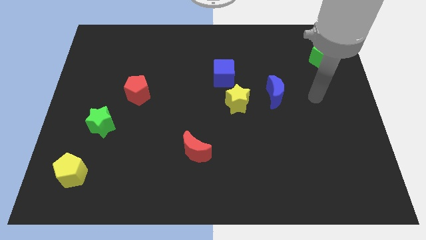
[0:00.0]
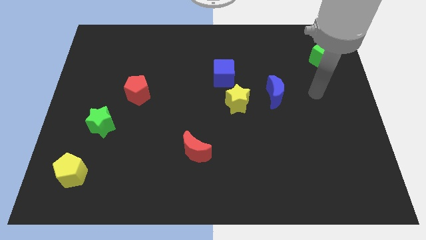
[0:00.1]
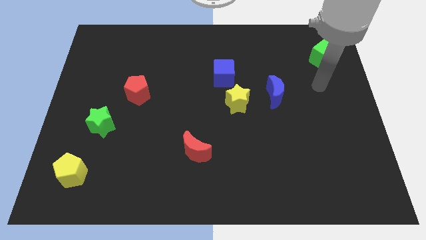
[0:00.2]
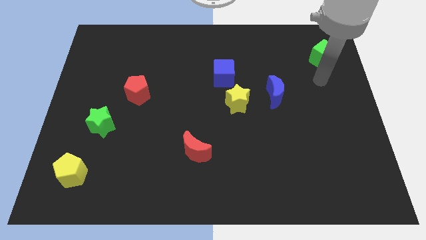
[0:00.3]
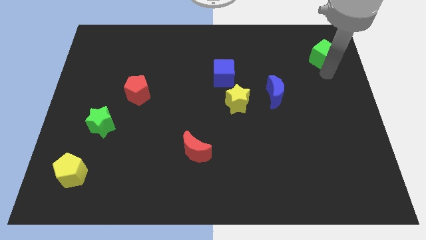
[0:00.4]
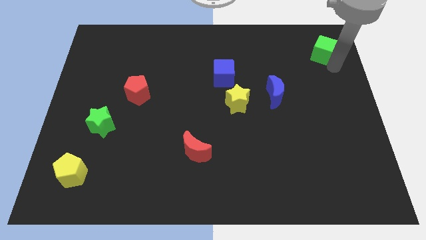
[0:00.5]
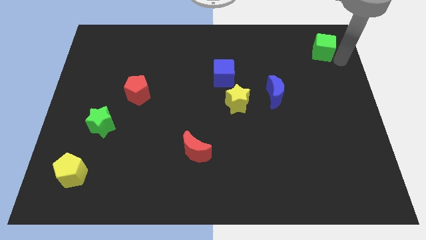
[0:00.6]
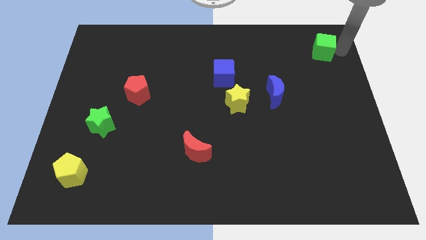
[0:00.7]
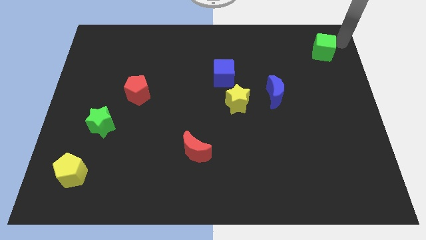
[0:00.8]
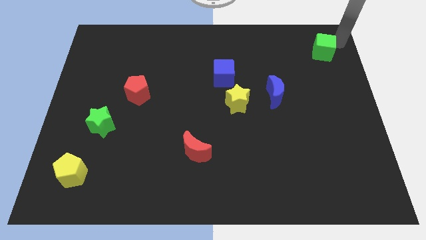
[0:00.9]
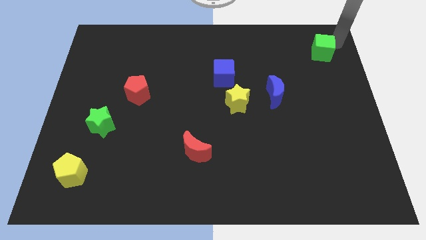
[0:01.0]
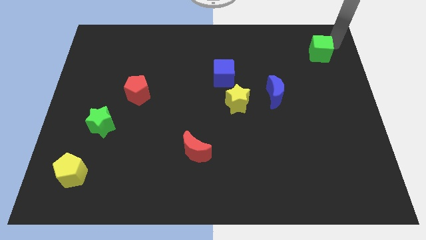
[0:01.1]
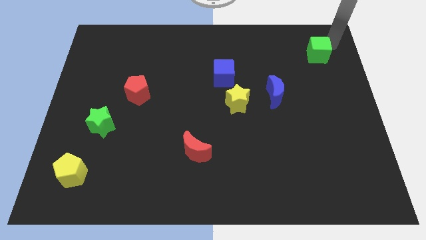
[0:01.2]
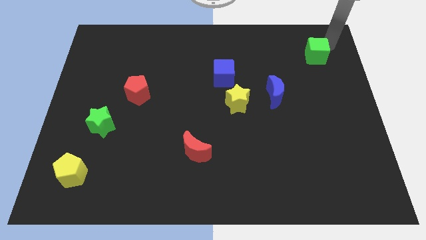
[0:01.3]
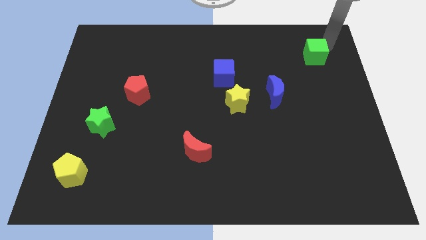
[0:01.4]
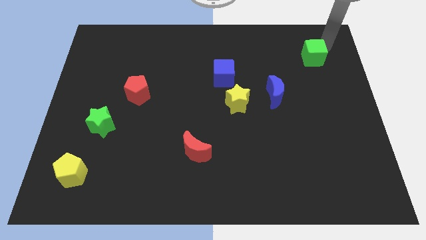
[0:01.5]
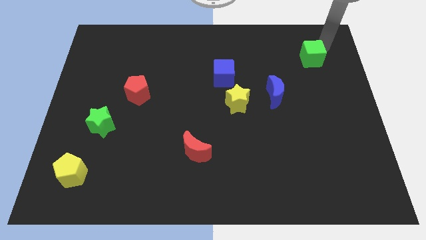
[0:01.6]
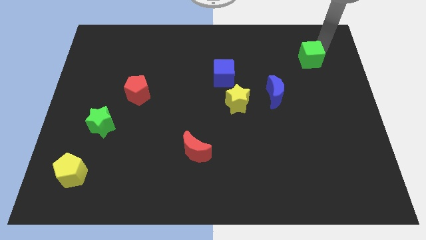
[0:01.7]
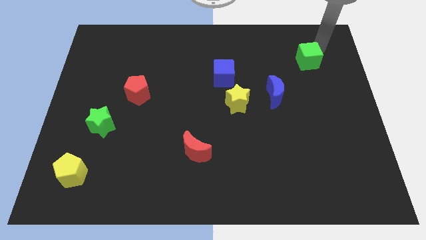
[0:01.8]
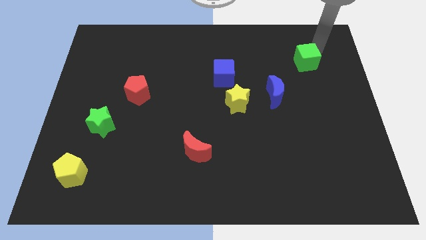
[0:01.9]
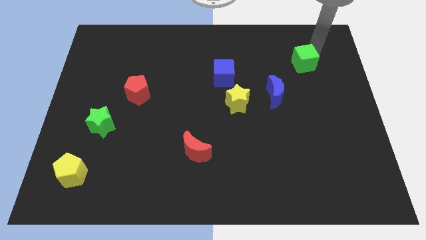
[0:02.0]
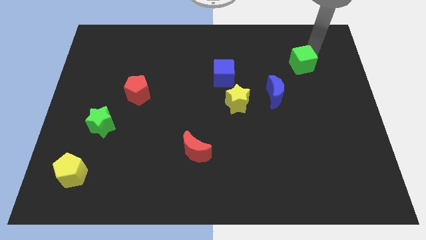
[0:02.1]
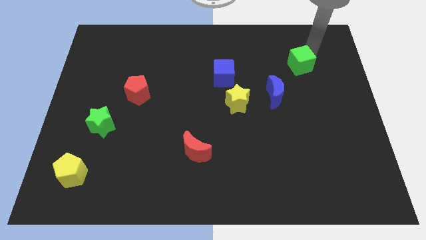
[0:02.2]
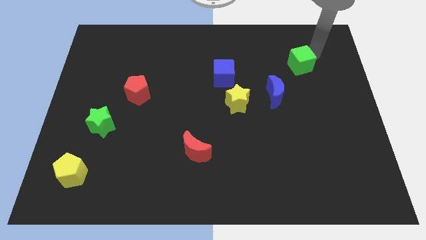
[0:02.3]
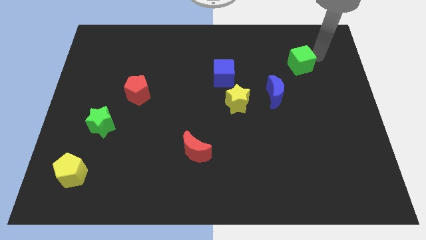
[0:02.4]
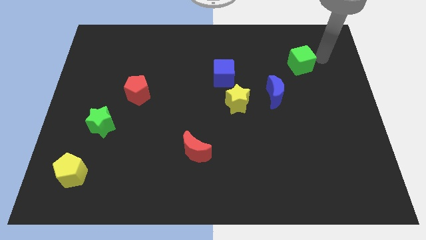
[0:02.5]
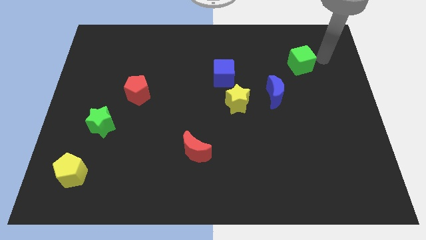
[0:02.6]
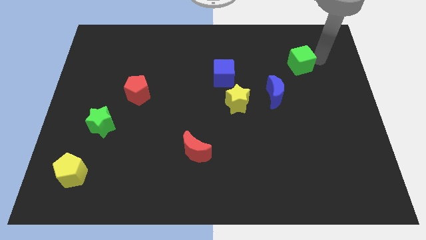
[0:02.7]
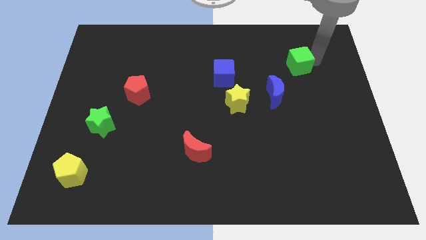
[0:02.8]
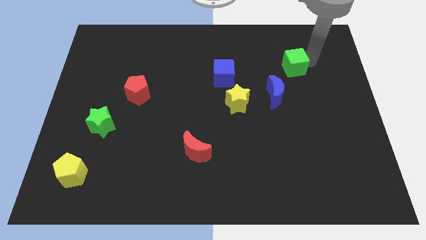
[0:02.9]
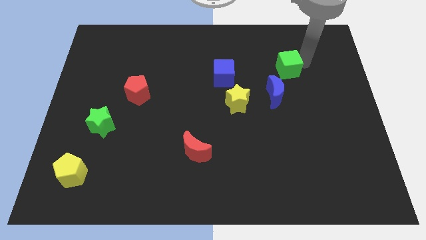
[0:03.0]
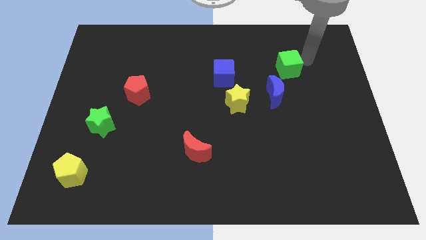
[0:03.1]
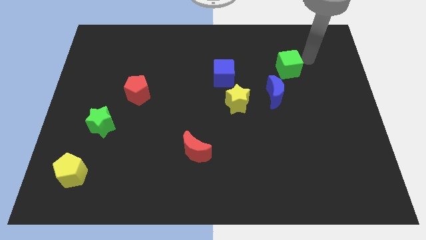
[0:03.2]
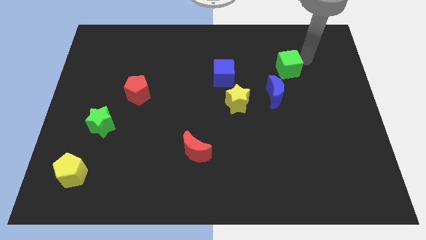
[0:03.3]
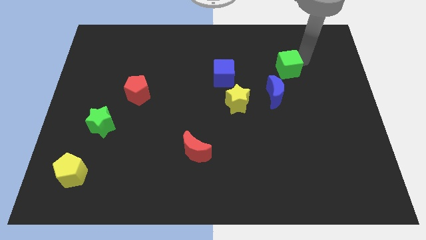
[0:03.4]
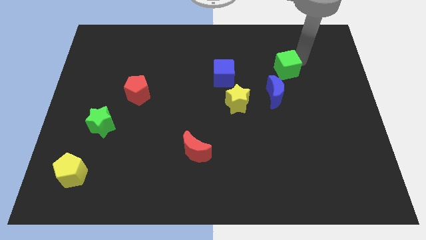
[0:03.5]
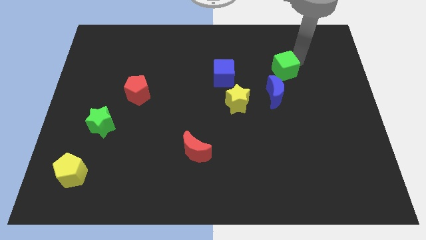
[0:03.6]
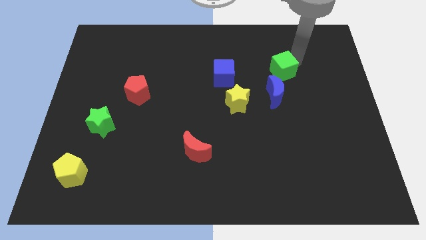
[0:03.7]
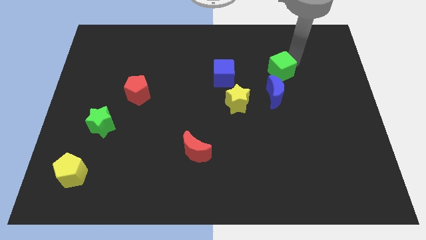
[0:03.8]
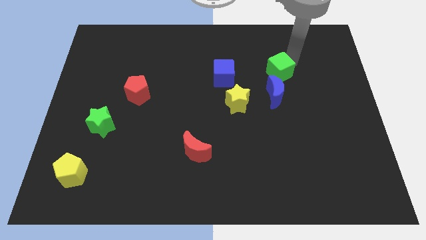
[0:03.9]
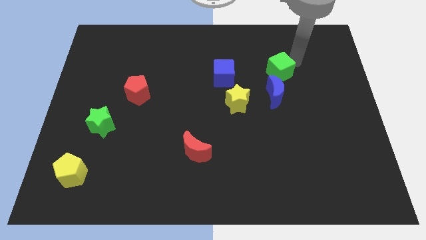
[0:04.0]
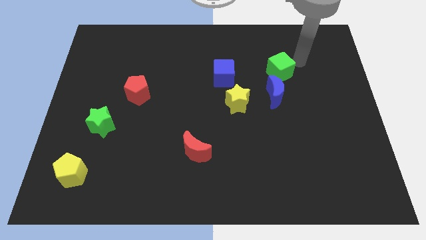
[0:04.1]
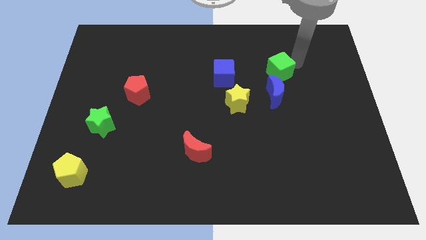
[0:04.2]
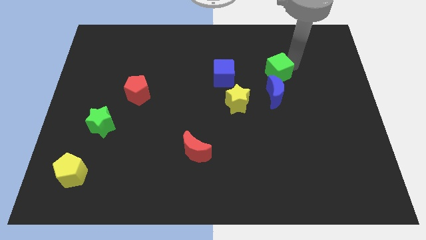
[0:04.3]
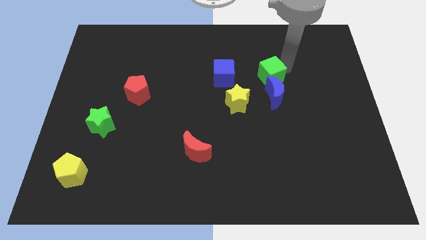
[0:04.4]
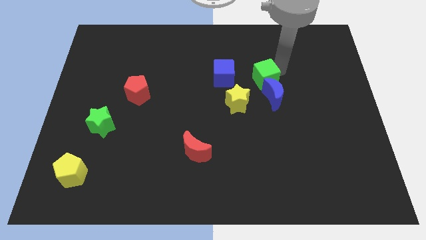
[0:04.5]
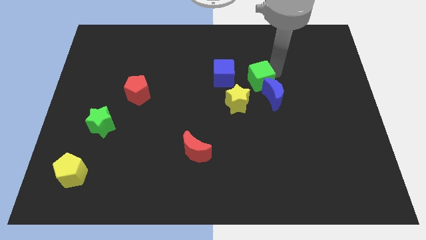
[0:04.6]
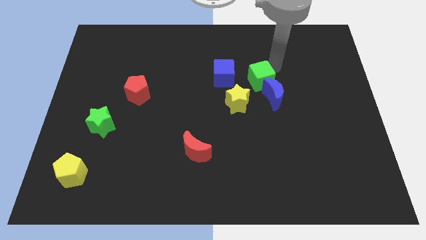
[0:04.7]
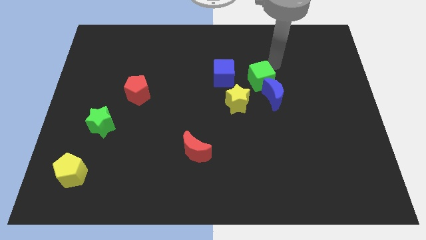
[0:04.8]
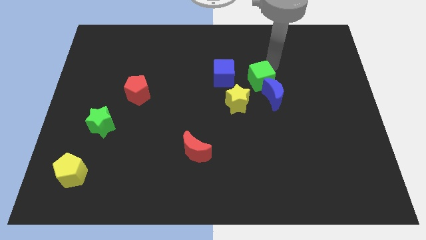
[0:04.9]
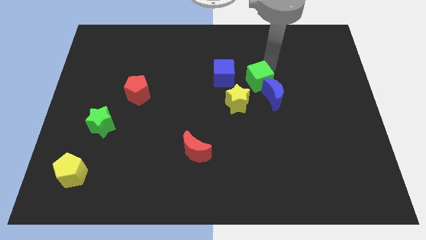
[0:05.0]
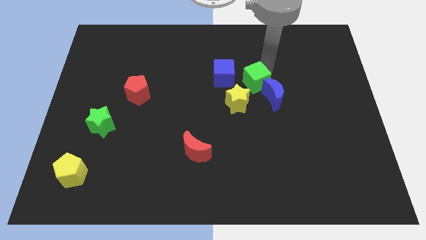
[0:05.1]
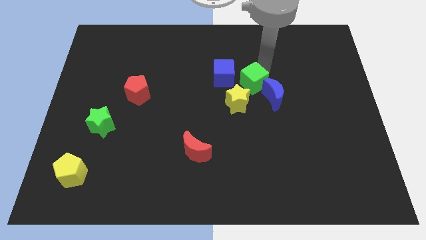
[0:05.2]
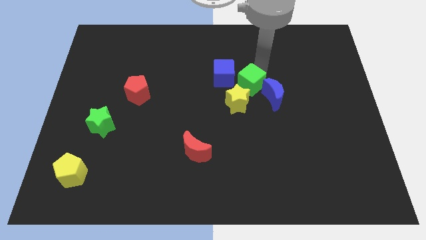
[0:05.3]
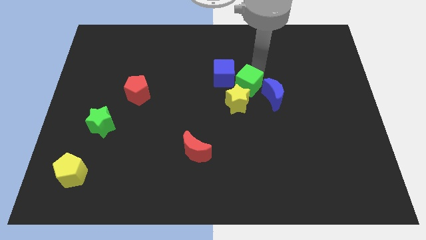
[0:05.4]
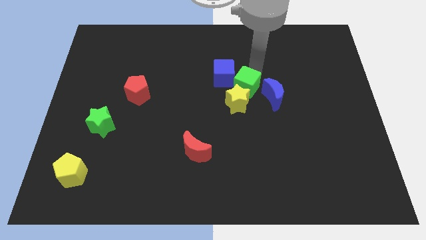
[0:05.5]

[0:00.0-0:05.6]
put the green cube towards the yellow star

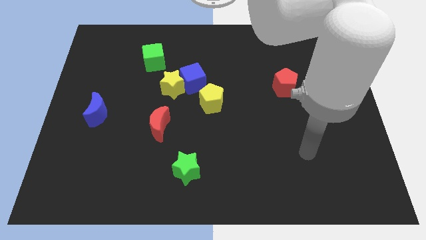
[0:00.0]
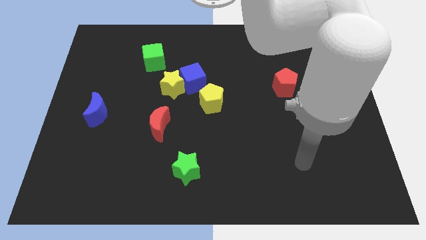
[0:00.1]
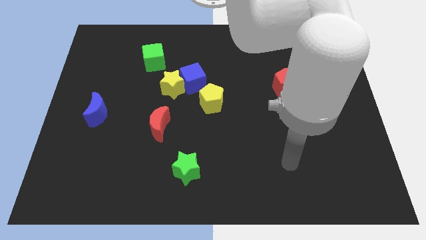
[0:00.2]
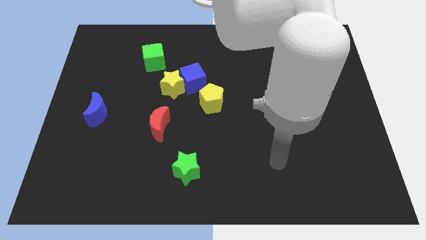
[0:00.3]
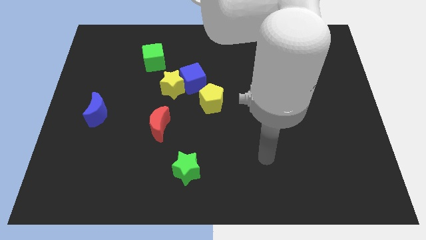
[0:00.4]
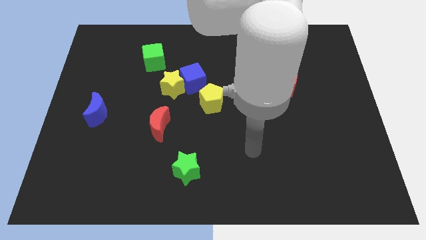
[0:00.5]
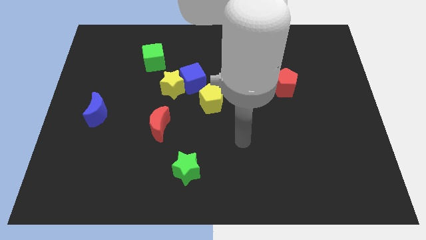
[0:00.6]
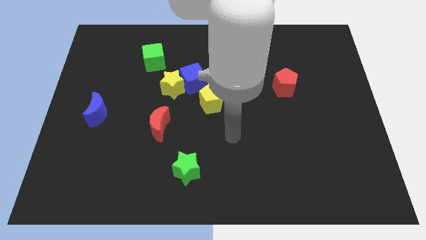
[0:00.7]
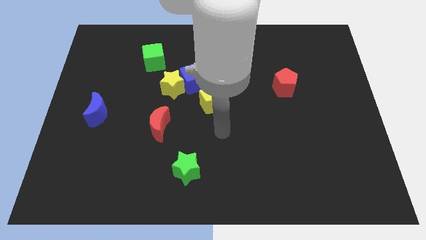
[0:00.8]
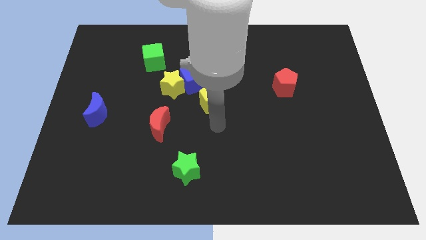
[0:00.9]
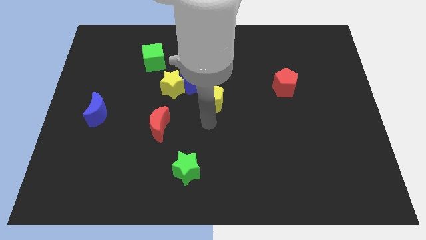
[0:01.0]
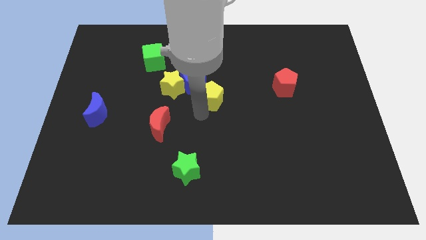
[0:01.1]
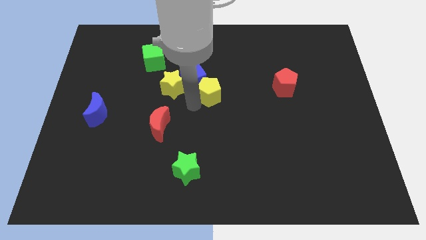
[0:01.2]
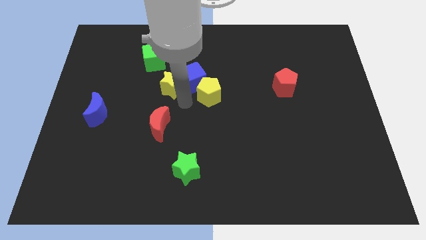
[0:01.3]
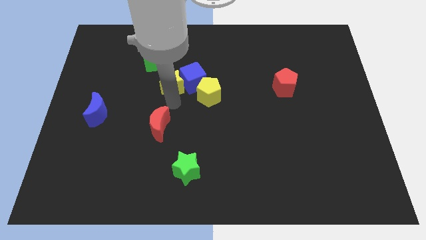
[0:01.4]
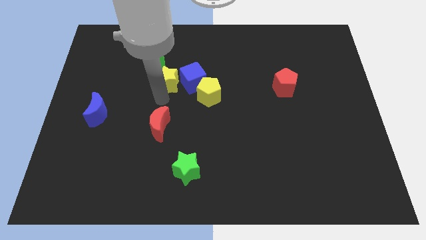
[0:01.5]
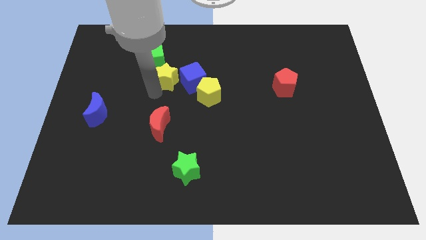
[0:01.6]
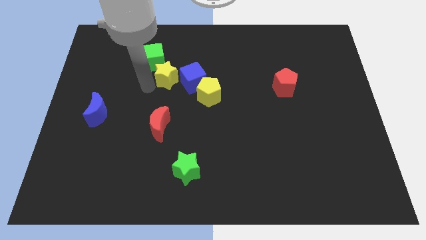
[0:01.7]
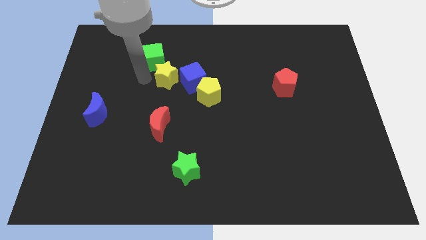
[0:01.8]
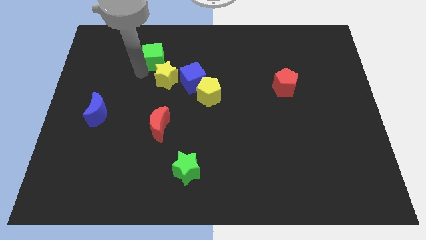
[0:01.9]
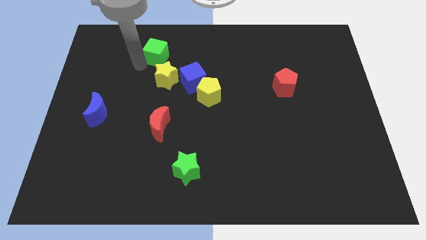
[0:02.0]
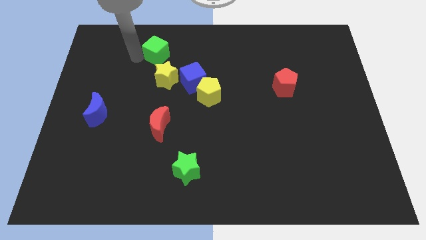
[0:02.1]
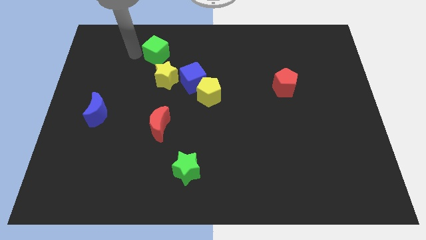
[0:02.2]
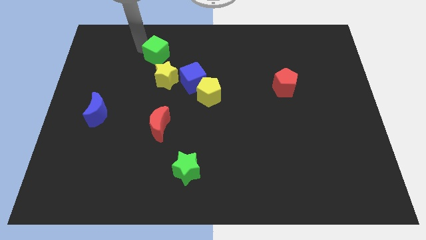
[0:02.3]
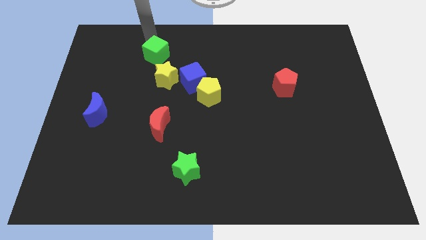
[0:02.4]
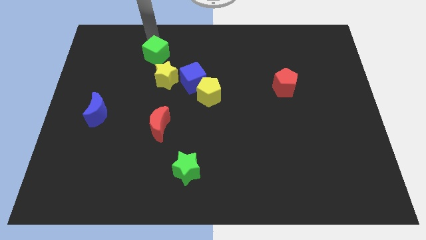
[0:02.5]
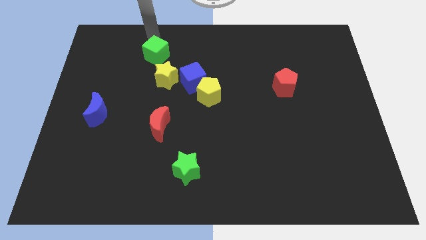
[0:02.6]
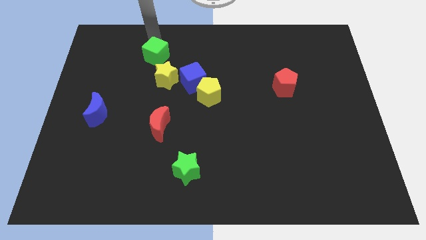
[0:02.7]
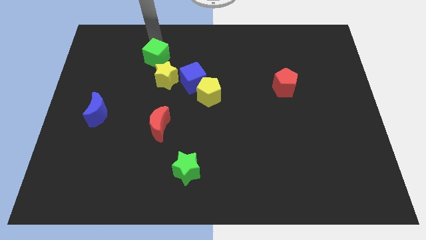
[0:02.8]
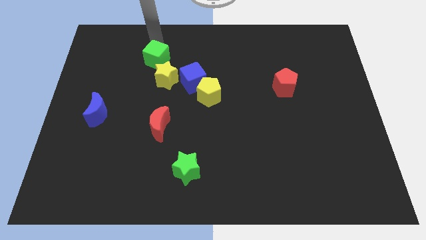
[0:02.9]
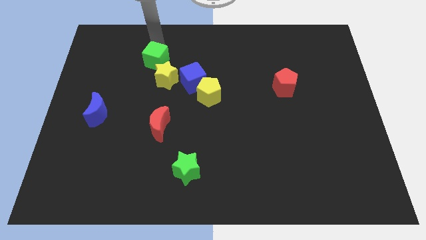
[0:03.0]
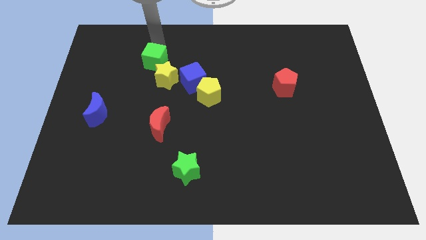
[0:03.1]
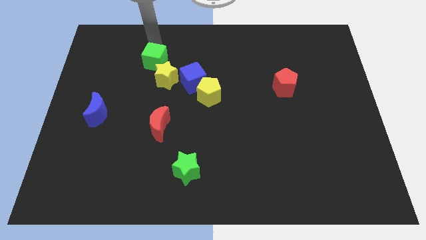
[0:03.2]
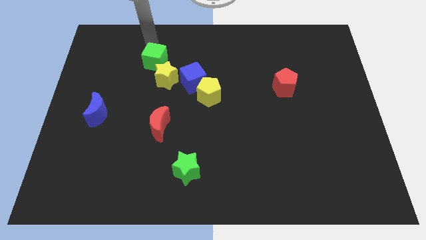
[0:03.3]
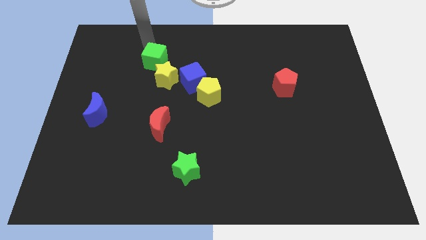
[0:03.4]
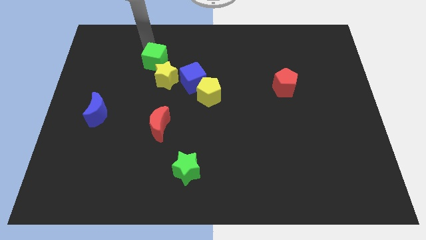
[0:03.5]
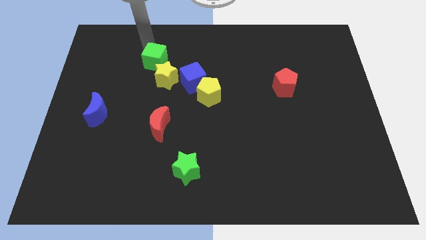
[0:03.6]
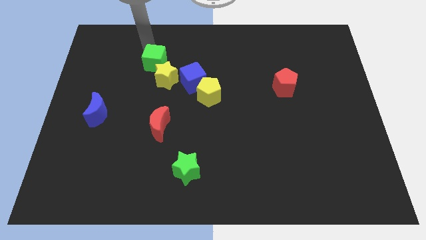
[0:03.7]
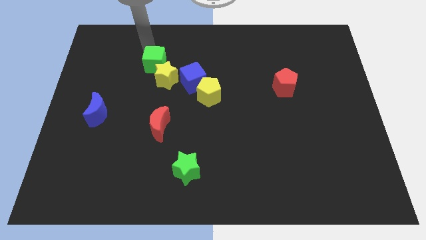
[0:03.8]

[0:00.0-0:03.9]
move the green cube next to the yellow star
